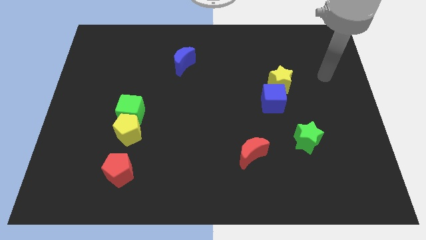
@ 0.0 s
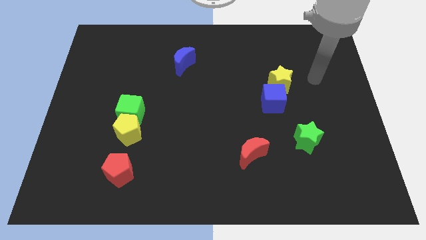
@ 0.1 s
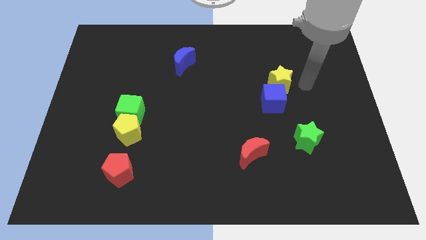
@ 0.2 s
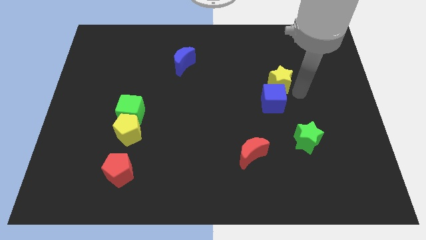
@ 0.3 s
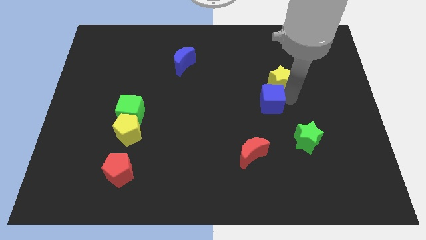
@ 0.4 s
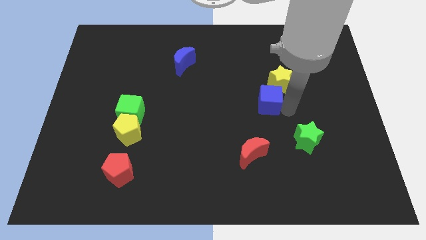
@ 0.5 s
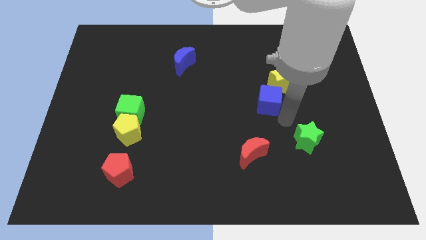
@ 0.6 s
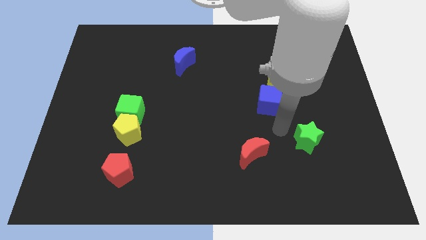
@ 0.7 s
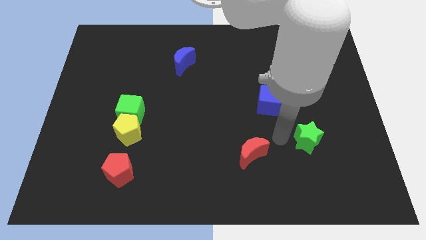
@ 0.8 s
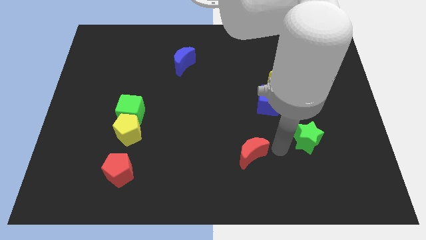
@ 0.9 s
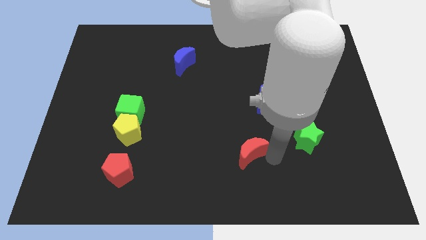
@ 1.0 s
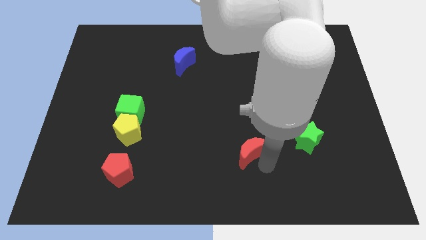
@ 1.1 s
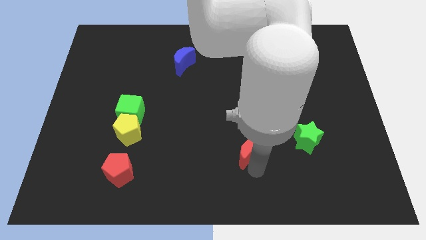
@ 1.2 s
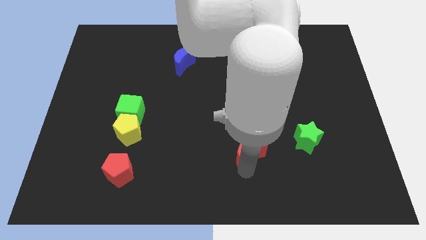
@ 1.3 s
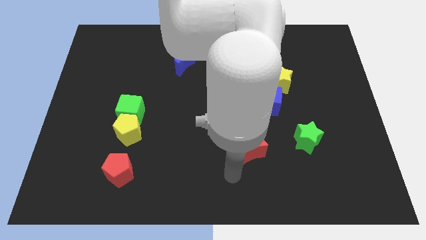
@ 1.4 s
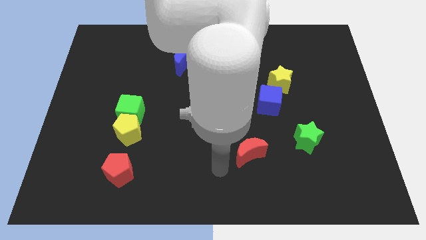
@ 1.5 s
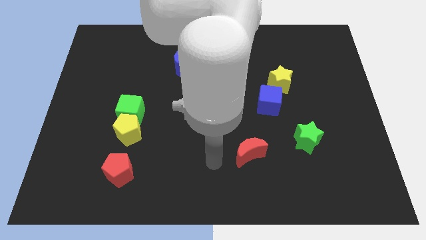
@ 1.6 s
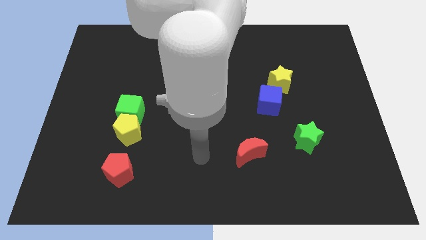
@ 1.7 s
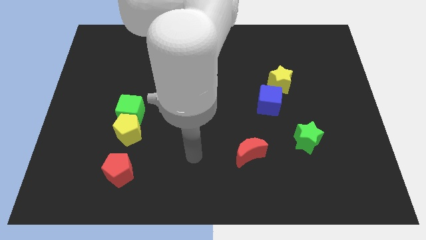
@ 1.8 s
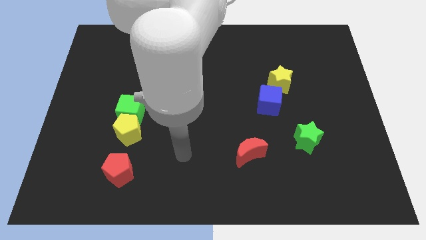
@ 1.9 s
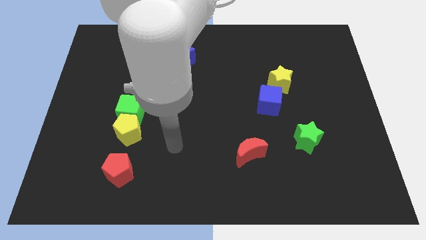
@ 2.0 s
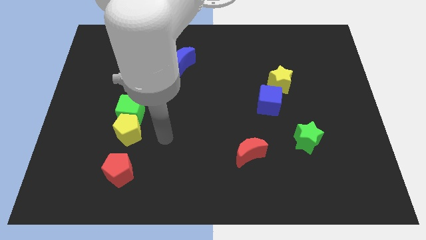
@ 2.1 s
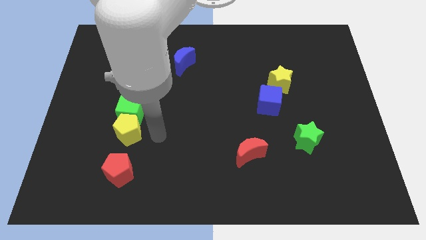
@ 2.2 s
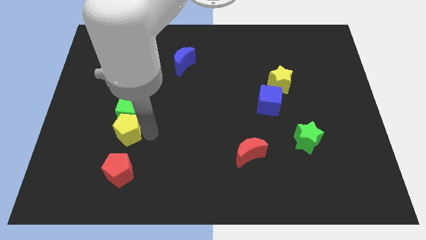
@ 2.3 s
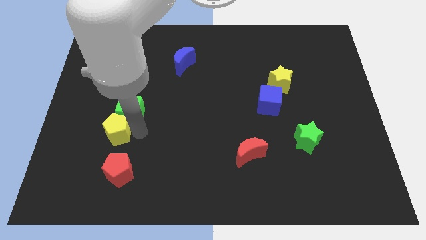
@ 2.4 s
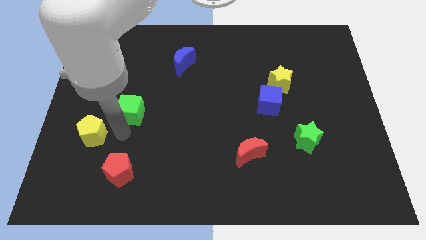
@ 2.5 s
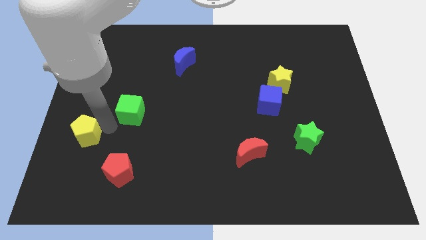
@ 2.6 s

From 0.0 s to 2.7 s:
separate the green cube from the yellow pentagon

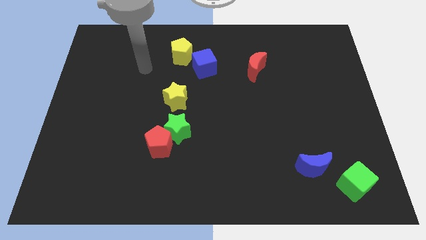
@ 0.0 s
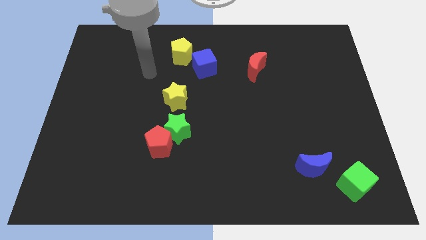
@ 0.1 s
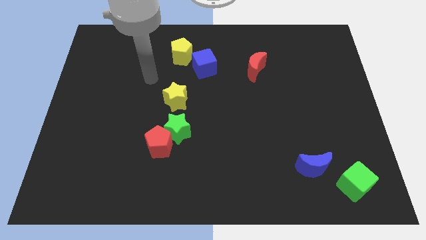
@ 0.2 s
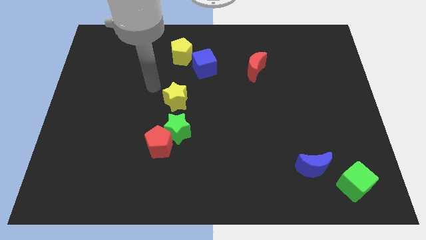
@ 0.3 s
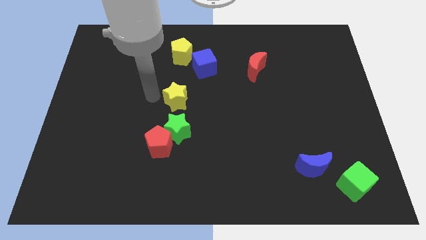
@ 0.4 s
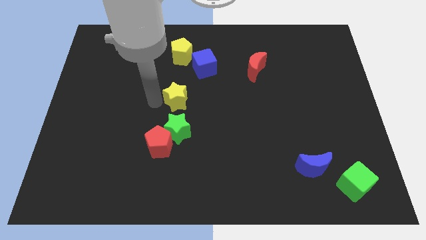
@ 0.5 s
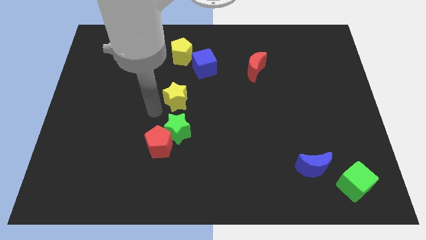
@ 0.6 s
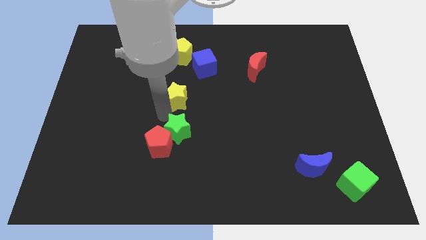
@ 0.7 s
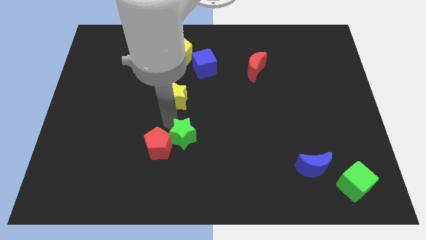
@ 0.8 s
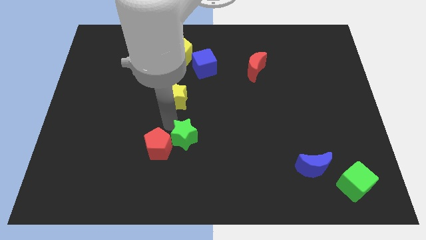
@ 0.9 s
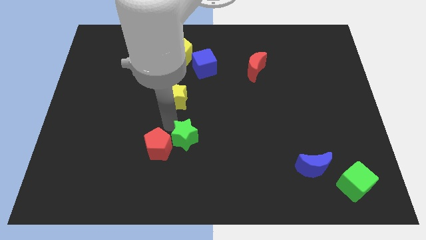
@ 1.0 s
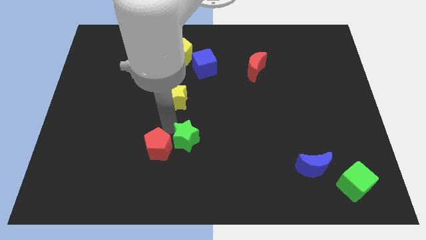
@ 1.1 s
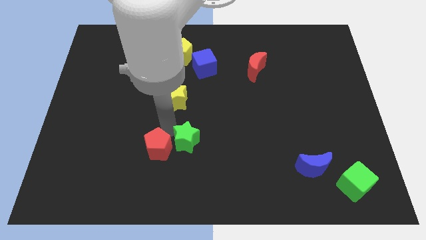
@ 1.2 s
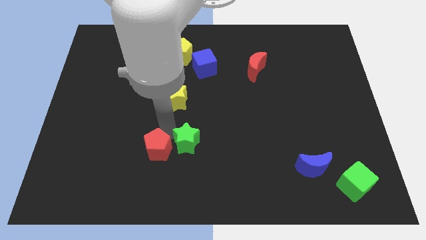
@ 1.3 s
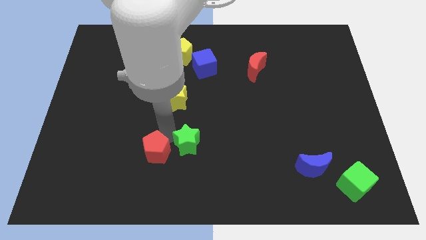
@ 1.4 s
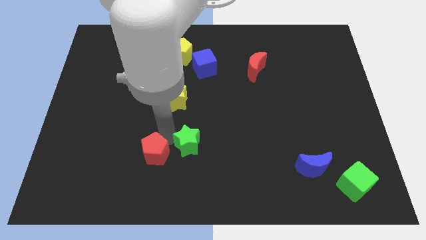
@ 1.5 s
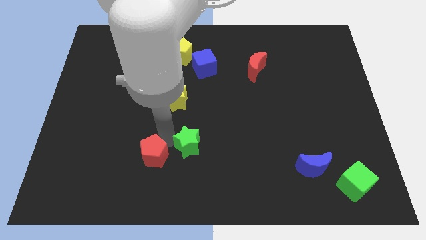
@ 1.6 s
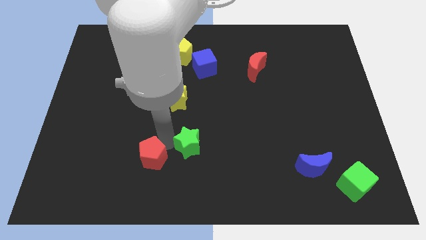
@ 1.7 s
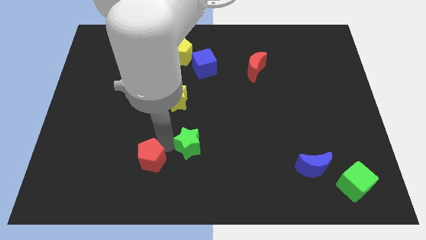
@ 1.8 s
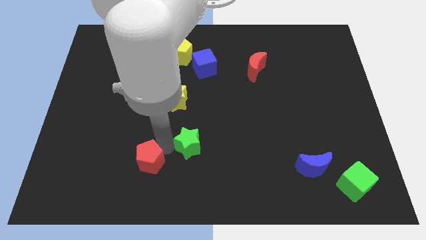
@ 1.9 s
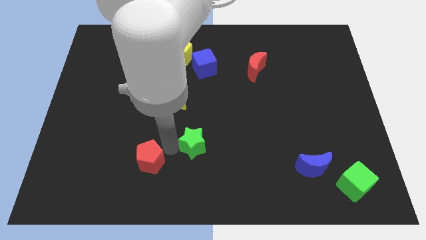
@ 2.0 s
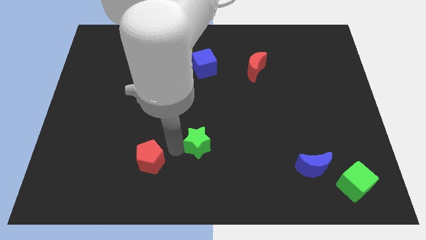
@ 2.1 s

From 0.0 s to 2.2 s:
move the red pentagon away from the green star

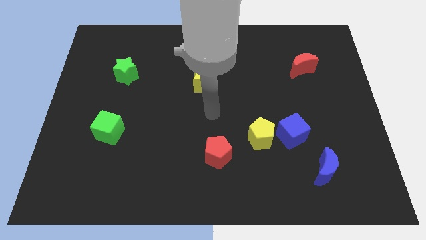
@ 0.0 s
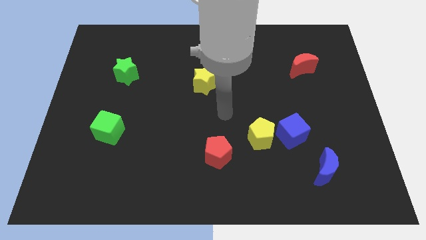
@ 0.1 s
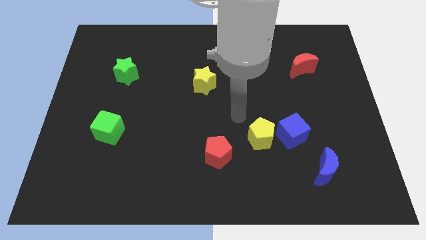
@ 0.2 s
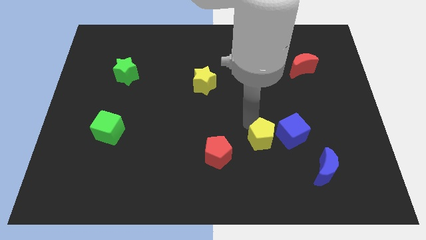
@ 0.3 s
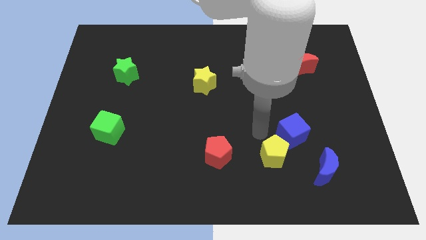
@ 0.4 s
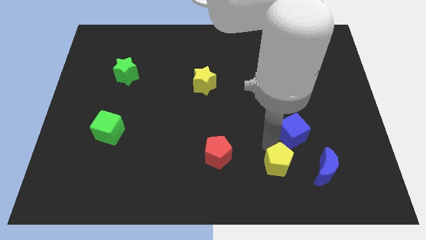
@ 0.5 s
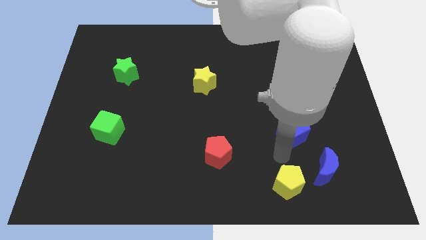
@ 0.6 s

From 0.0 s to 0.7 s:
pull the blue cube apart from the yellow pentagon

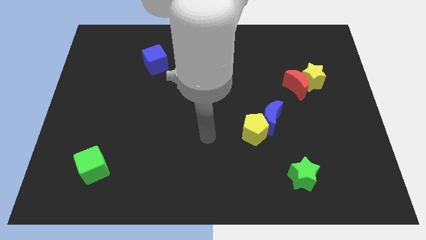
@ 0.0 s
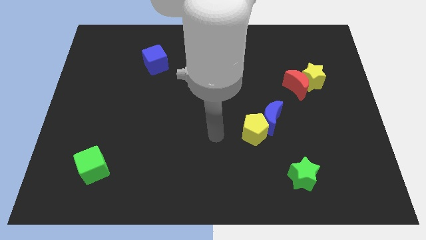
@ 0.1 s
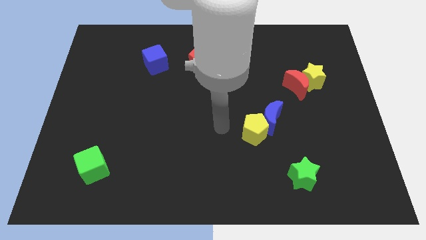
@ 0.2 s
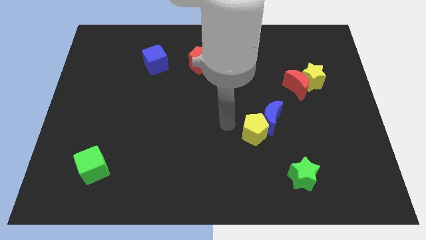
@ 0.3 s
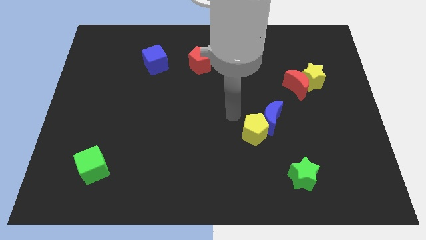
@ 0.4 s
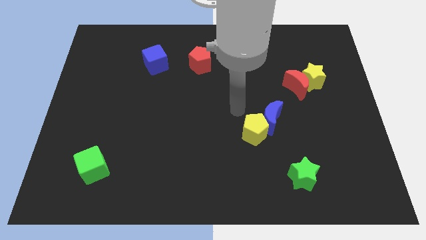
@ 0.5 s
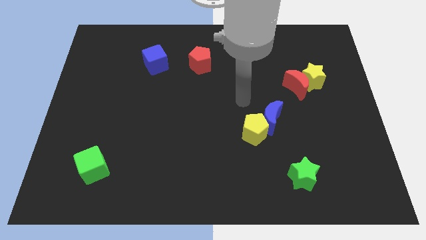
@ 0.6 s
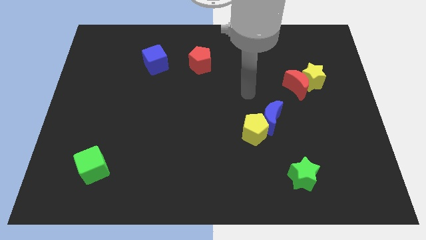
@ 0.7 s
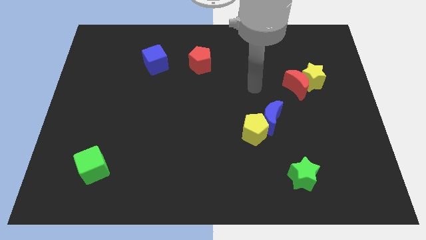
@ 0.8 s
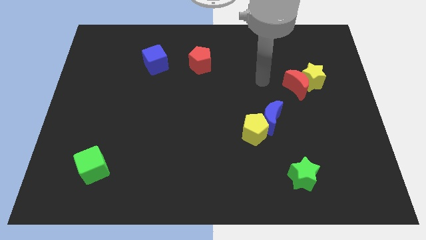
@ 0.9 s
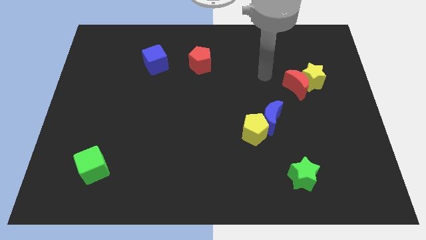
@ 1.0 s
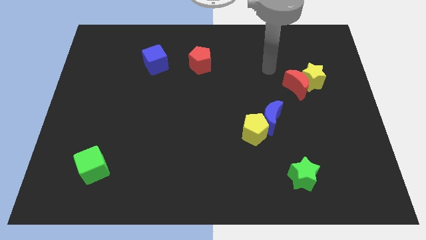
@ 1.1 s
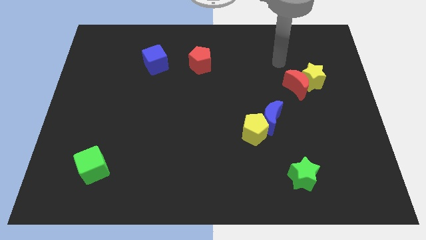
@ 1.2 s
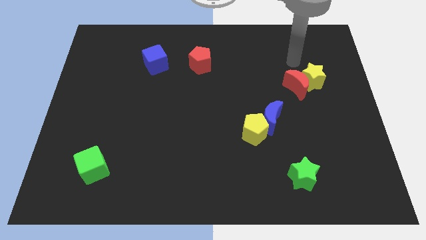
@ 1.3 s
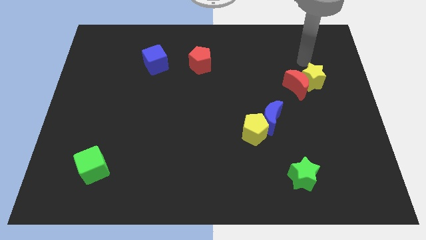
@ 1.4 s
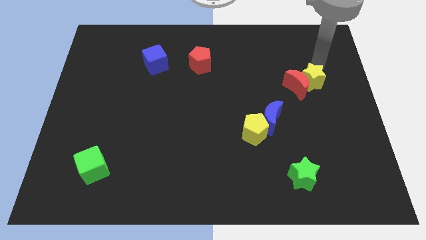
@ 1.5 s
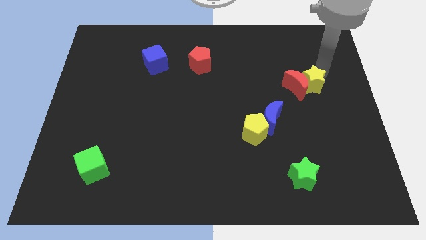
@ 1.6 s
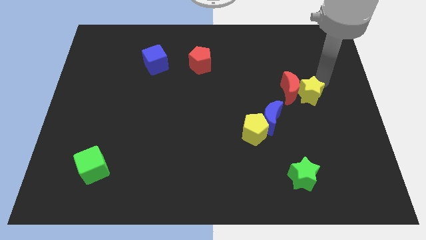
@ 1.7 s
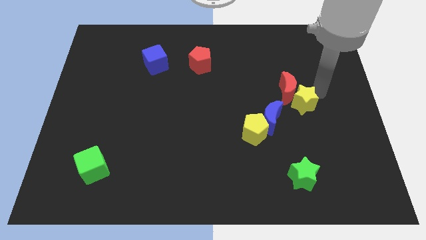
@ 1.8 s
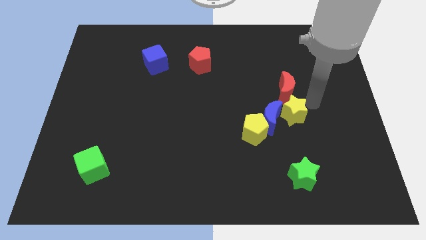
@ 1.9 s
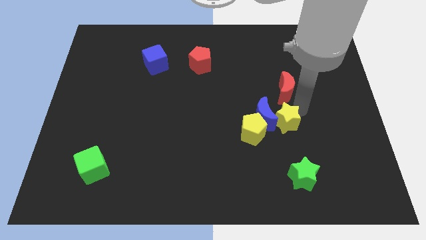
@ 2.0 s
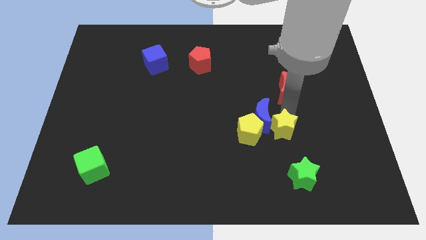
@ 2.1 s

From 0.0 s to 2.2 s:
separate the red moon from the yellow star

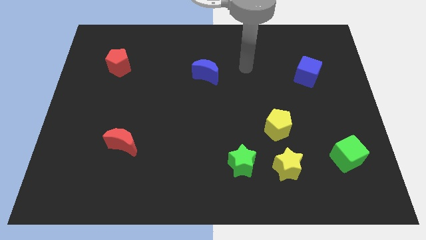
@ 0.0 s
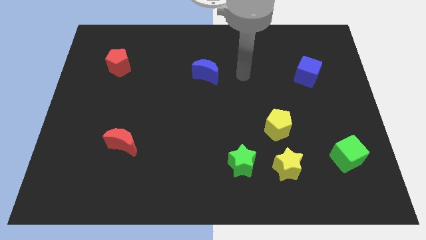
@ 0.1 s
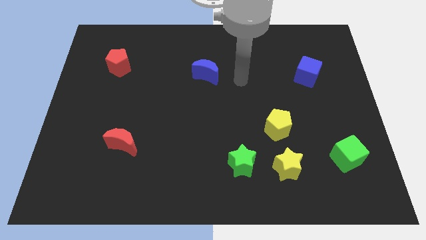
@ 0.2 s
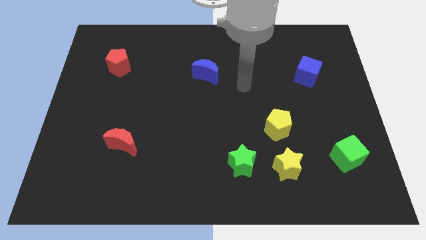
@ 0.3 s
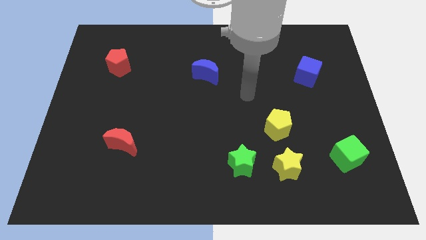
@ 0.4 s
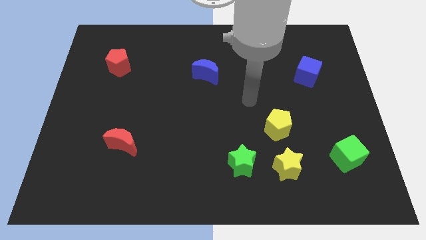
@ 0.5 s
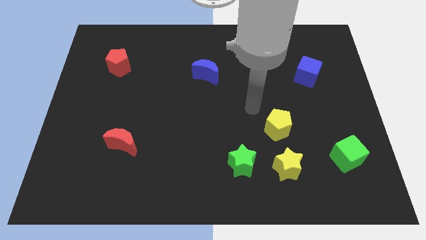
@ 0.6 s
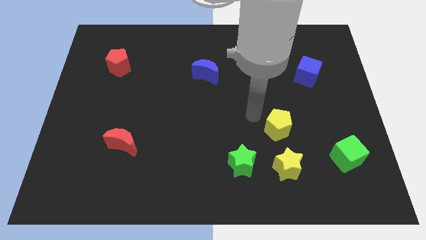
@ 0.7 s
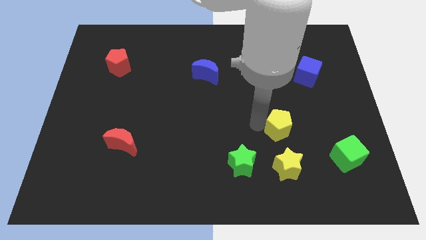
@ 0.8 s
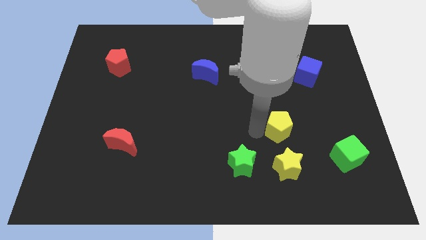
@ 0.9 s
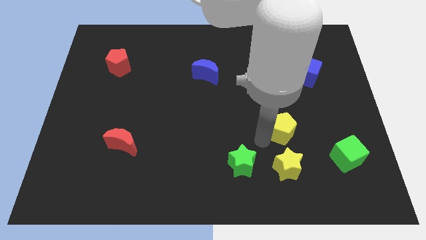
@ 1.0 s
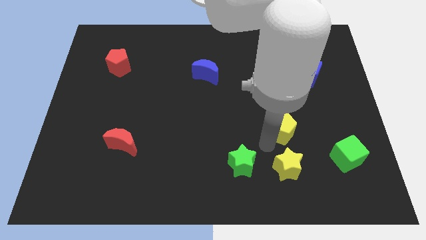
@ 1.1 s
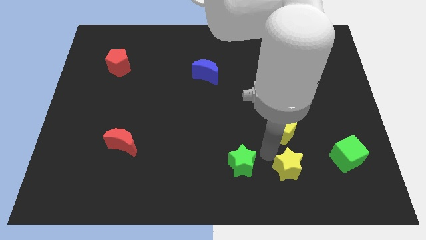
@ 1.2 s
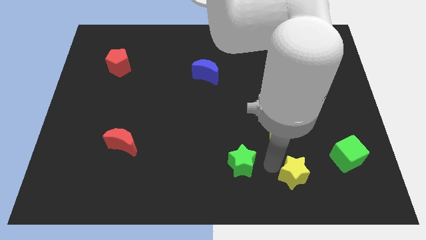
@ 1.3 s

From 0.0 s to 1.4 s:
separate the green star from the yellow star

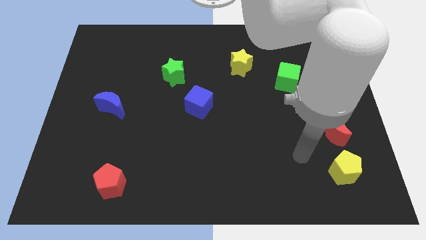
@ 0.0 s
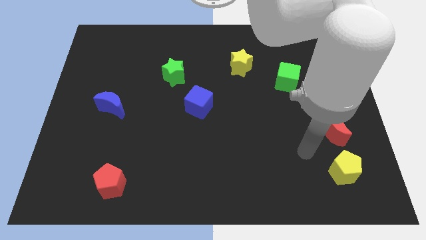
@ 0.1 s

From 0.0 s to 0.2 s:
separate the red moon from the yellow pentagon

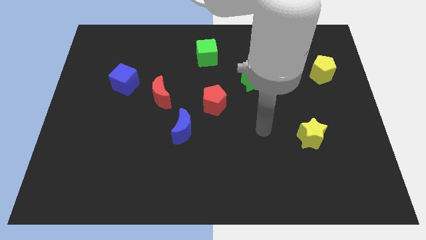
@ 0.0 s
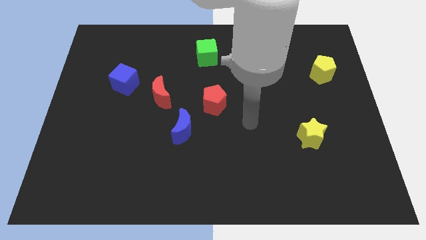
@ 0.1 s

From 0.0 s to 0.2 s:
pull the red pentagon apart from the blue moon
